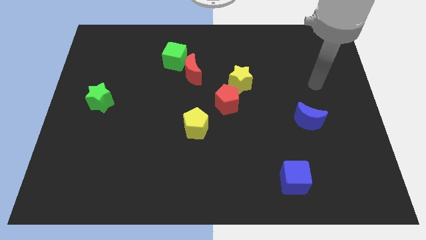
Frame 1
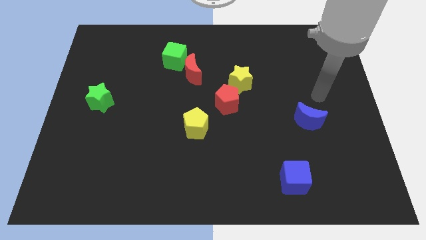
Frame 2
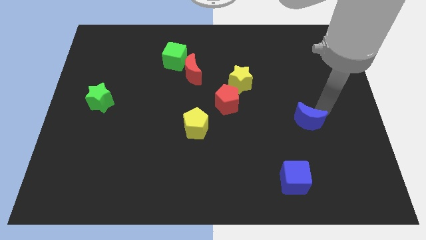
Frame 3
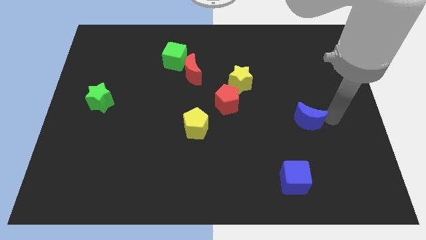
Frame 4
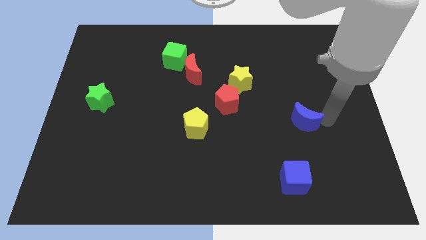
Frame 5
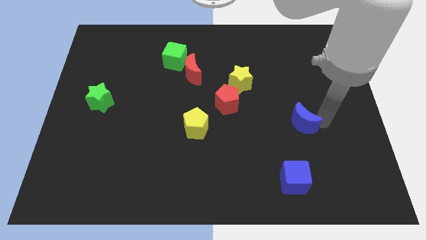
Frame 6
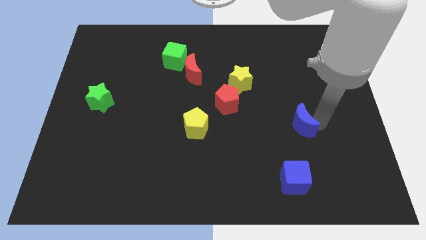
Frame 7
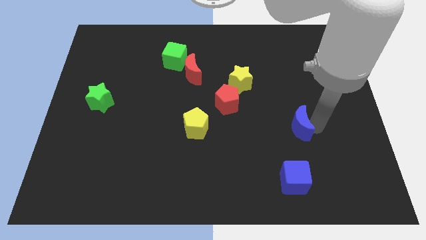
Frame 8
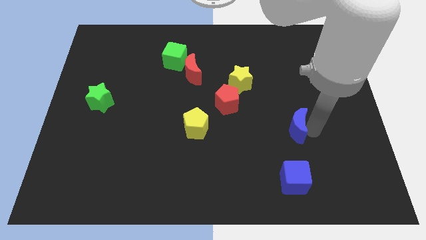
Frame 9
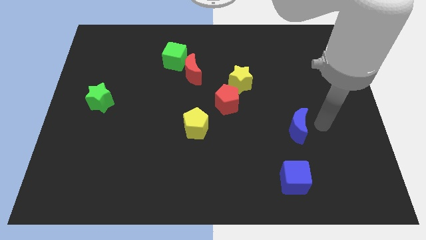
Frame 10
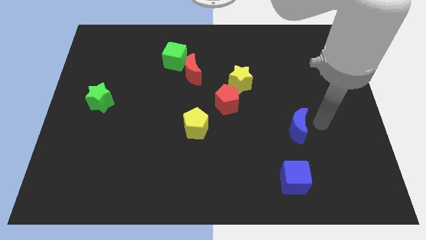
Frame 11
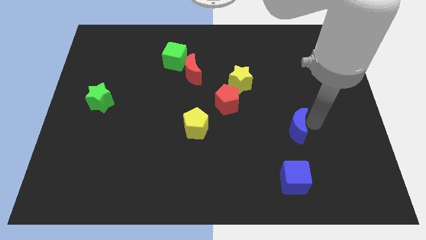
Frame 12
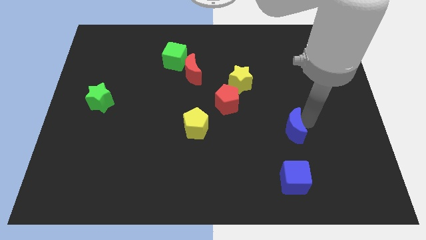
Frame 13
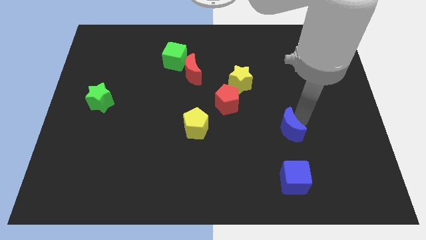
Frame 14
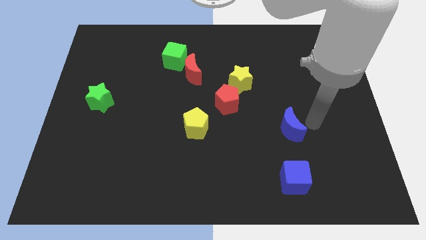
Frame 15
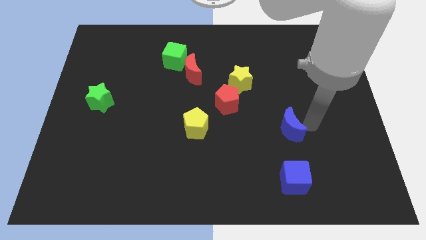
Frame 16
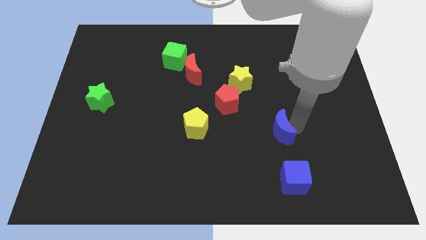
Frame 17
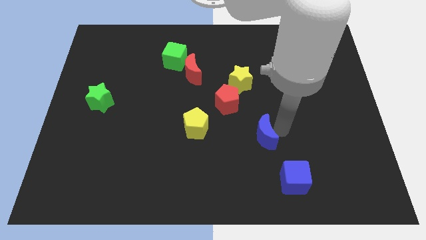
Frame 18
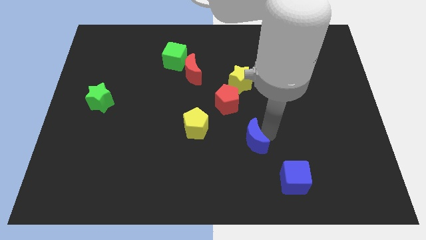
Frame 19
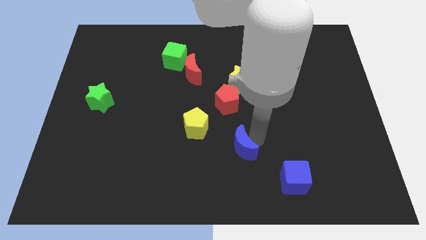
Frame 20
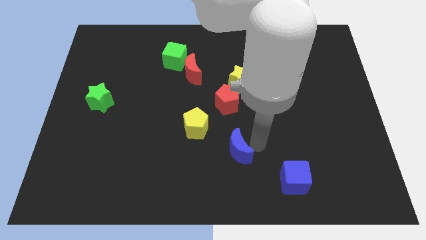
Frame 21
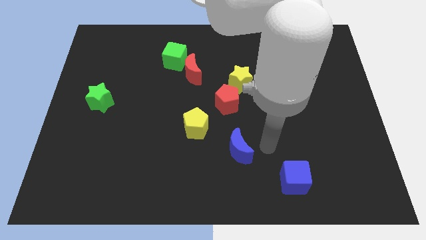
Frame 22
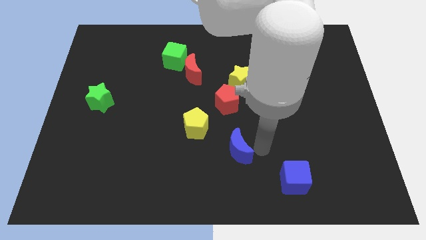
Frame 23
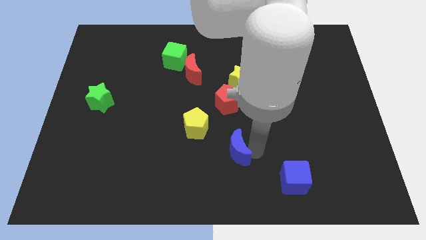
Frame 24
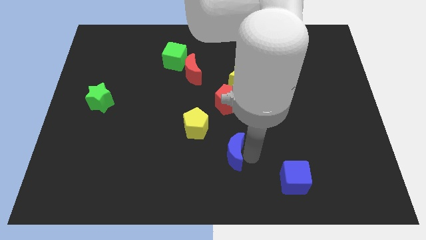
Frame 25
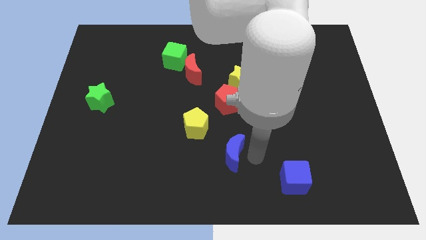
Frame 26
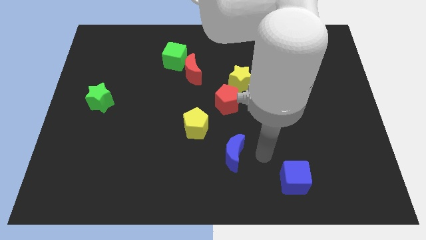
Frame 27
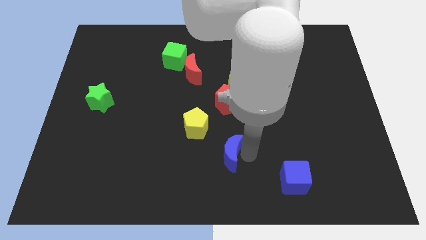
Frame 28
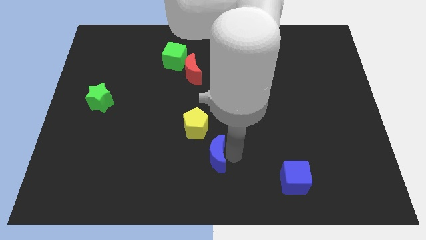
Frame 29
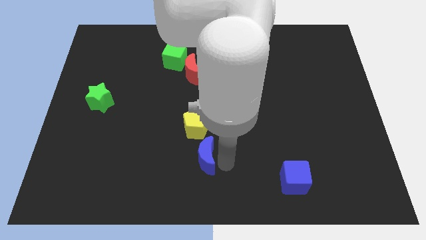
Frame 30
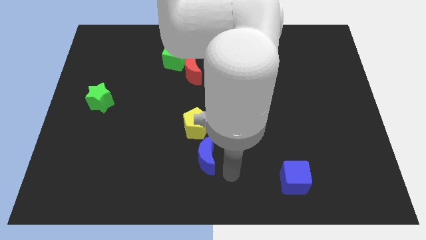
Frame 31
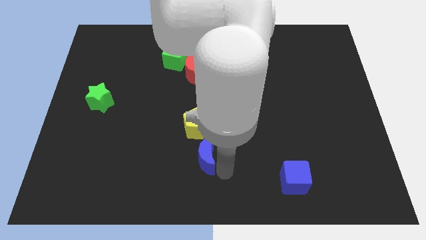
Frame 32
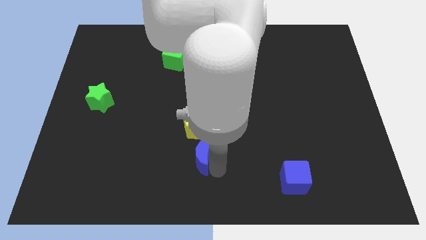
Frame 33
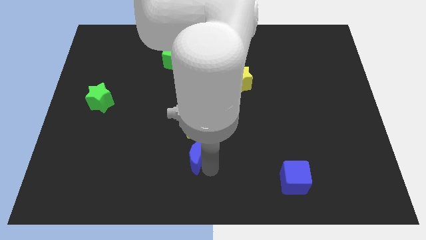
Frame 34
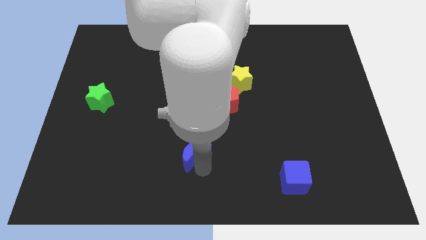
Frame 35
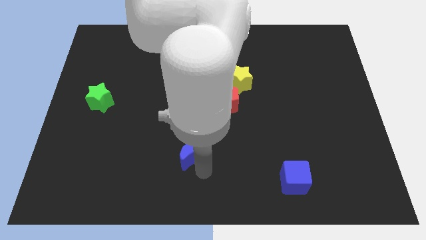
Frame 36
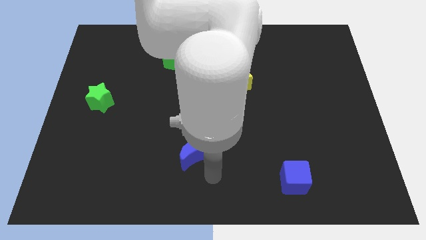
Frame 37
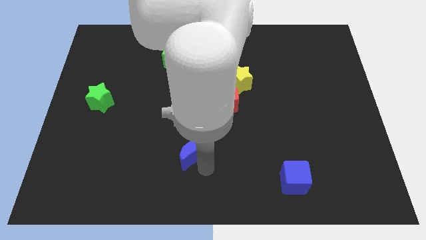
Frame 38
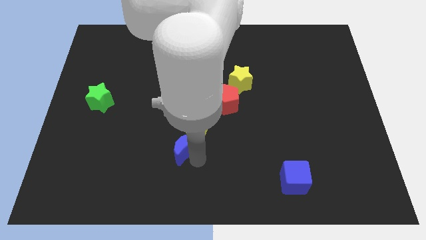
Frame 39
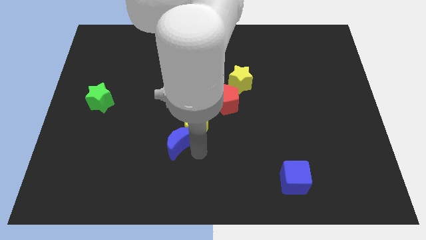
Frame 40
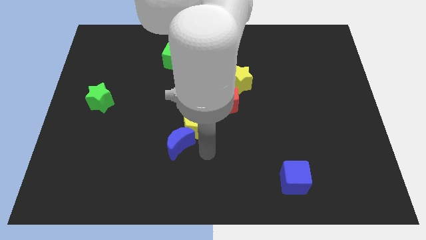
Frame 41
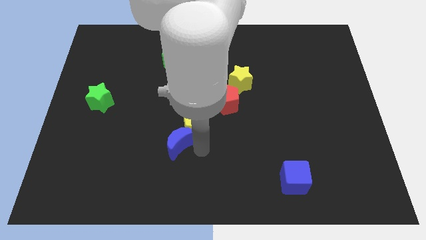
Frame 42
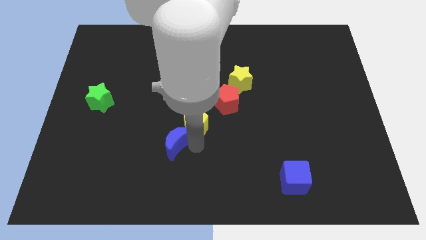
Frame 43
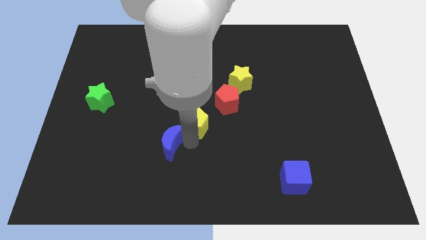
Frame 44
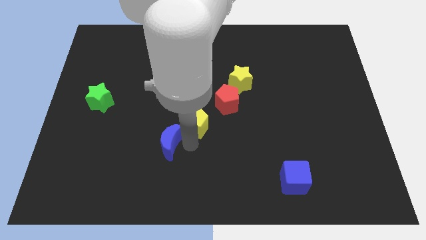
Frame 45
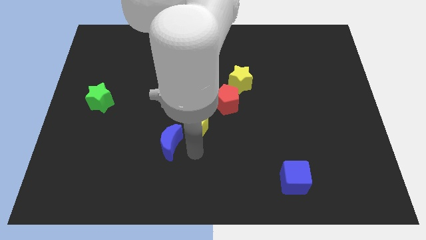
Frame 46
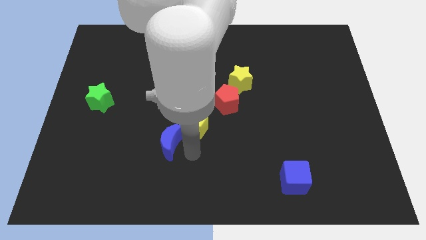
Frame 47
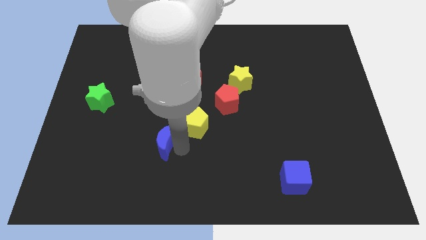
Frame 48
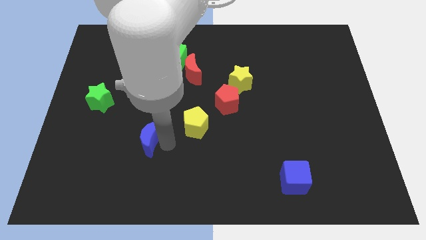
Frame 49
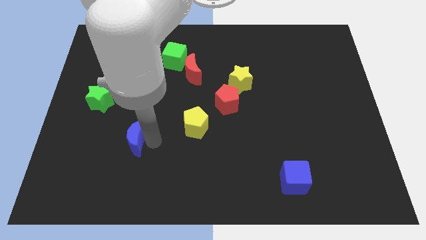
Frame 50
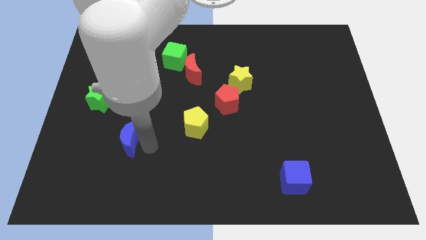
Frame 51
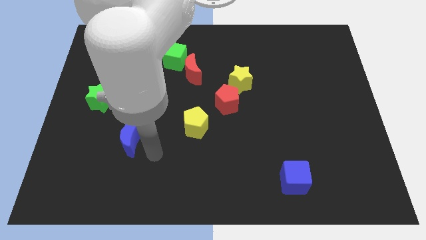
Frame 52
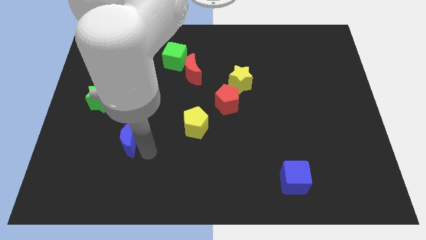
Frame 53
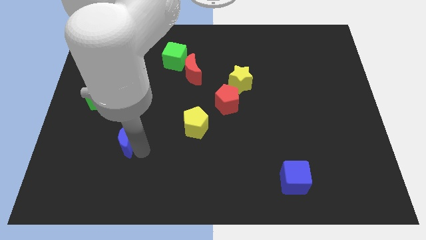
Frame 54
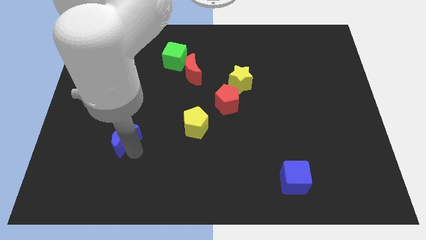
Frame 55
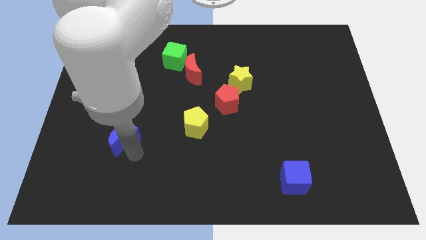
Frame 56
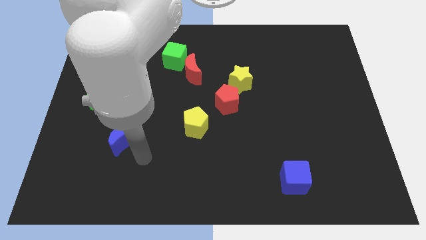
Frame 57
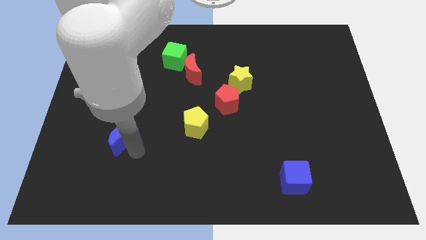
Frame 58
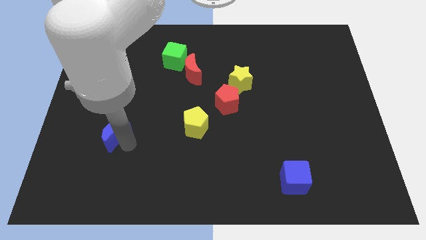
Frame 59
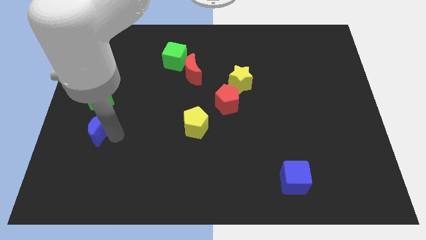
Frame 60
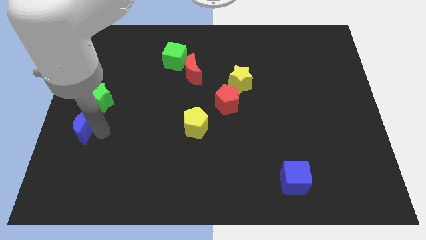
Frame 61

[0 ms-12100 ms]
put the blue moon to the center left

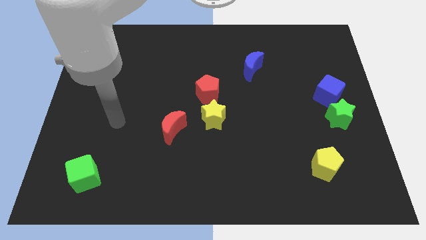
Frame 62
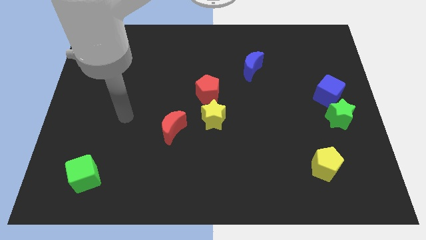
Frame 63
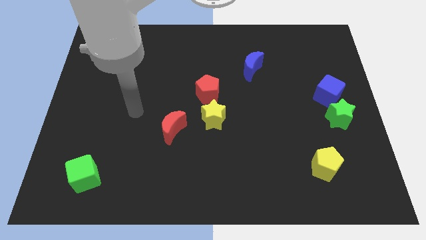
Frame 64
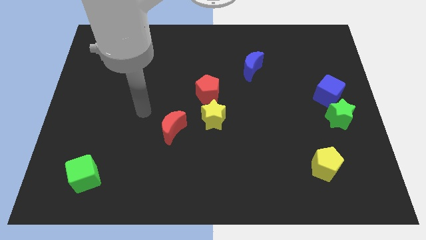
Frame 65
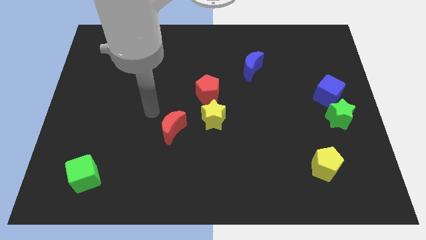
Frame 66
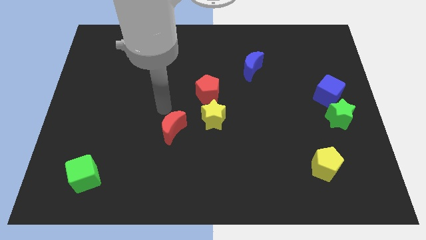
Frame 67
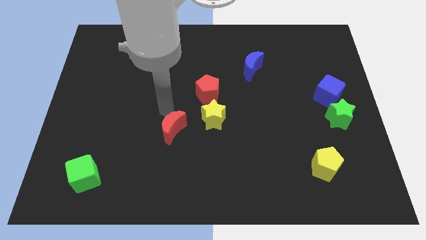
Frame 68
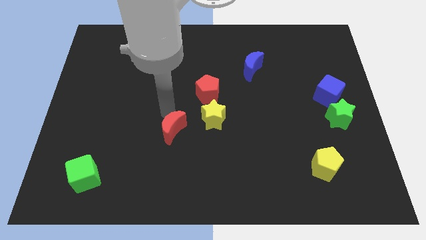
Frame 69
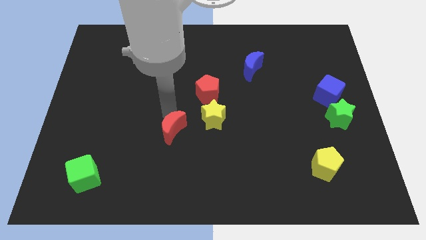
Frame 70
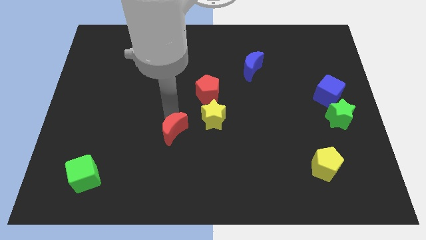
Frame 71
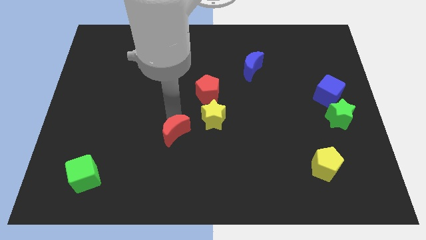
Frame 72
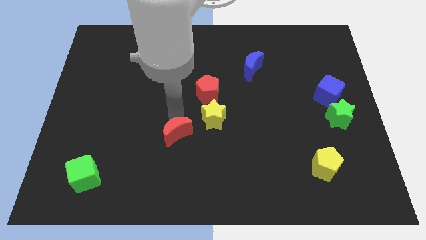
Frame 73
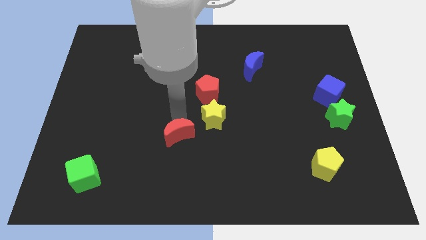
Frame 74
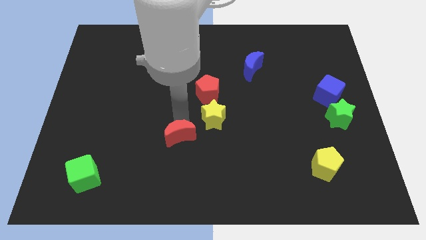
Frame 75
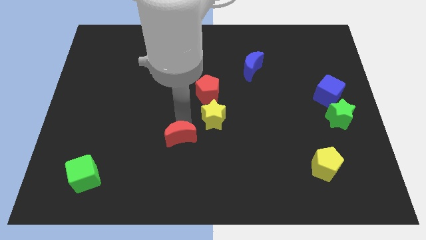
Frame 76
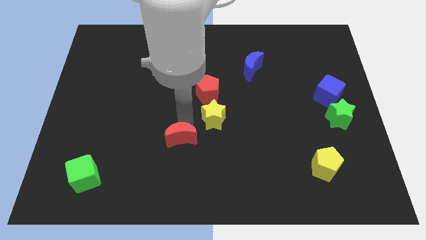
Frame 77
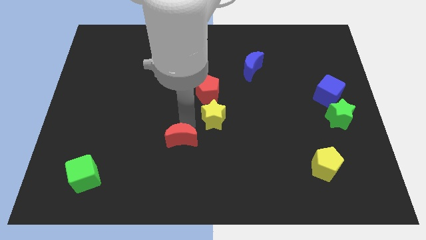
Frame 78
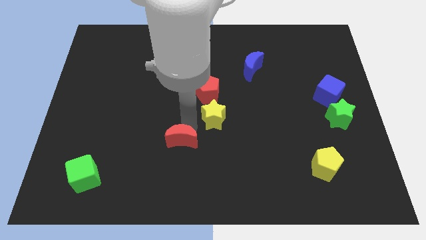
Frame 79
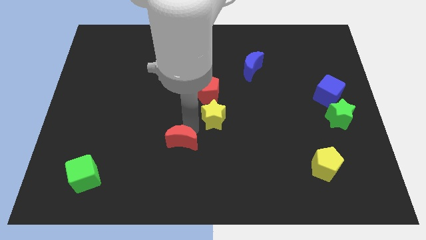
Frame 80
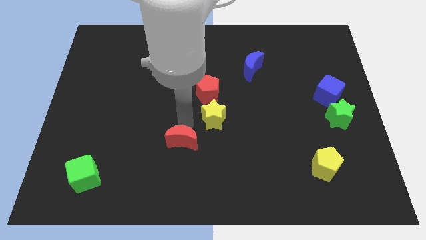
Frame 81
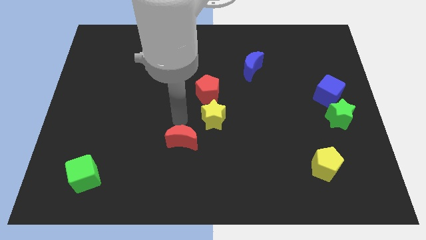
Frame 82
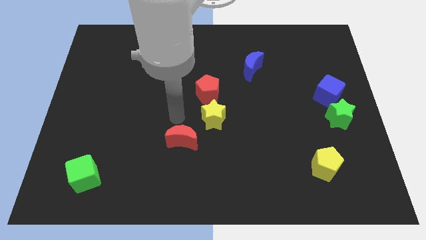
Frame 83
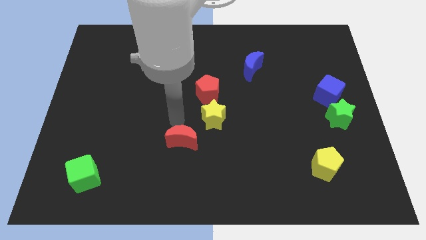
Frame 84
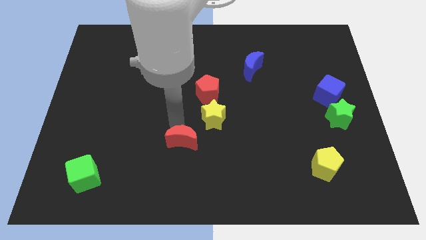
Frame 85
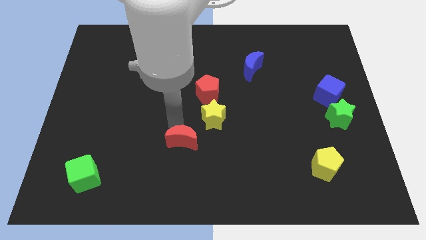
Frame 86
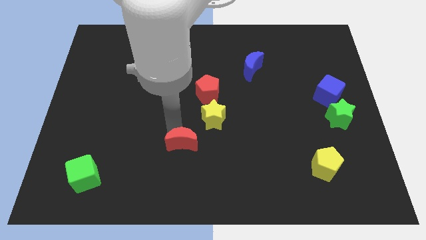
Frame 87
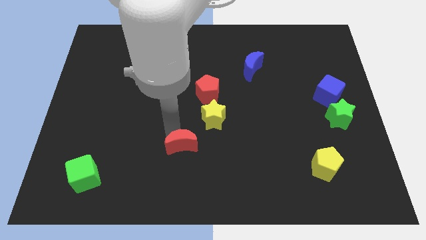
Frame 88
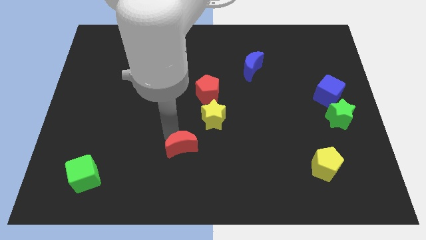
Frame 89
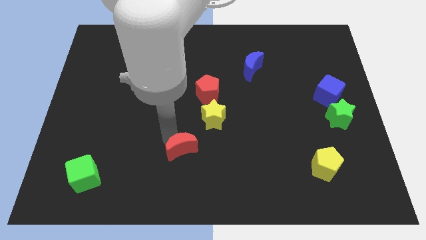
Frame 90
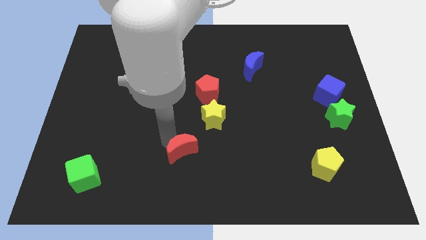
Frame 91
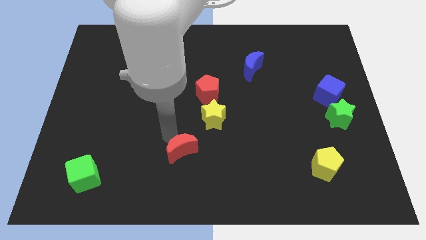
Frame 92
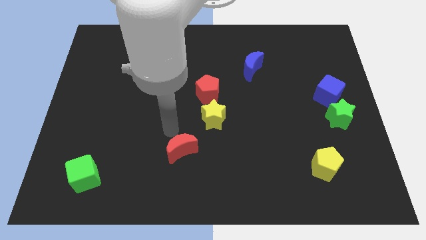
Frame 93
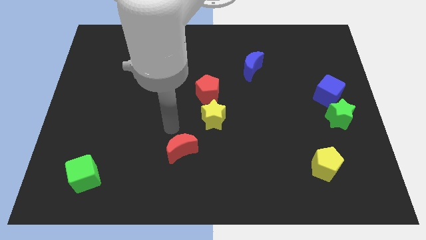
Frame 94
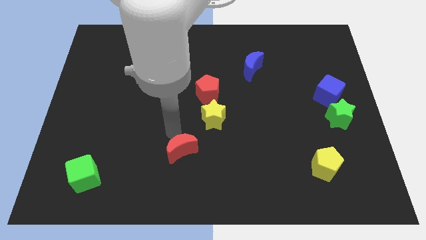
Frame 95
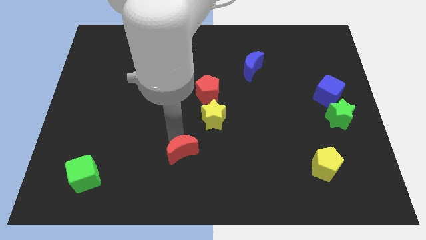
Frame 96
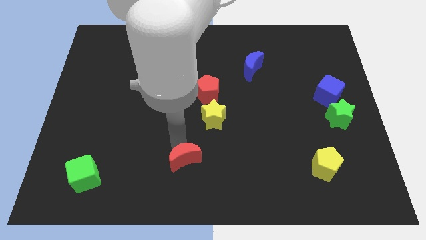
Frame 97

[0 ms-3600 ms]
push the red moon to the bottom side
